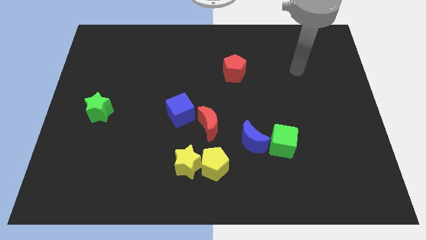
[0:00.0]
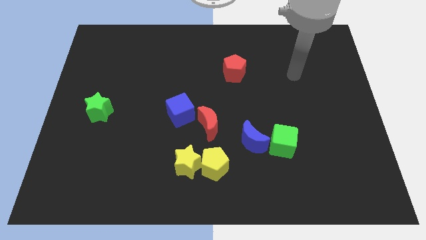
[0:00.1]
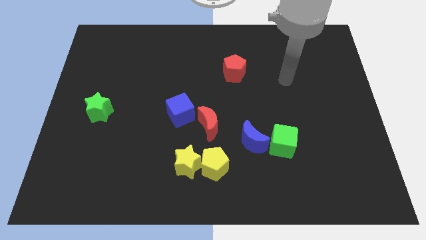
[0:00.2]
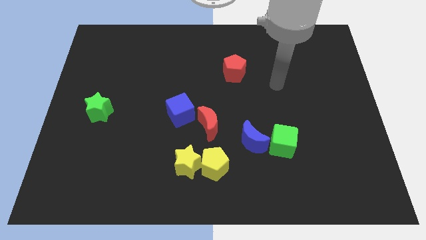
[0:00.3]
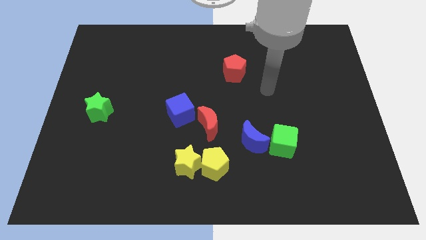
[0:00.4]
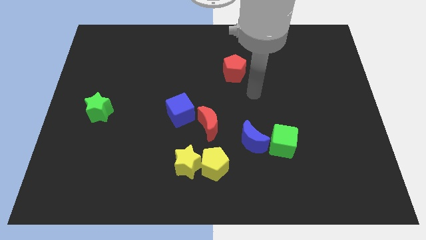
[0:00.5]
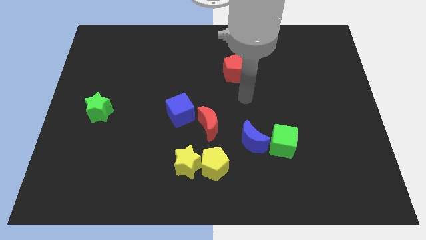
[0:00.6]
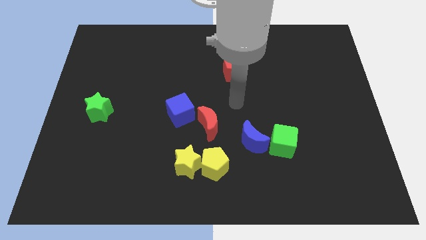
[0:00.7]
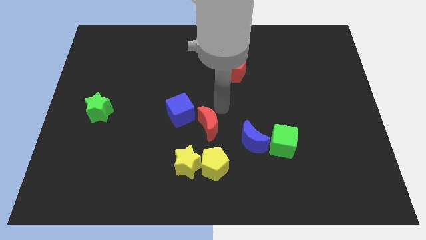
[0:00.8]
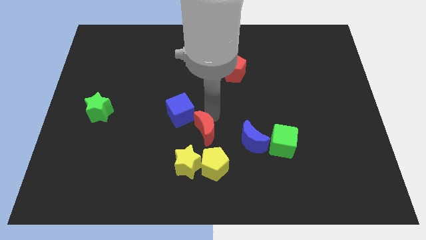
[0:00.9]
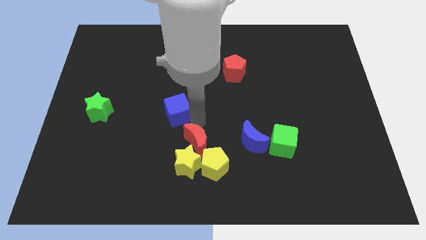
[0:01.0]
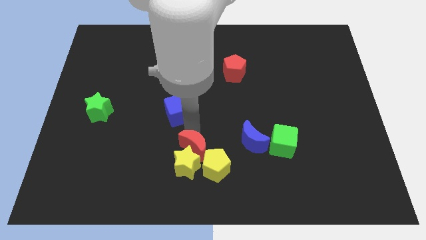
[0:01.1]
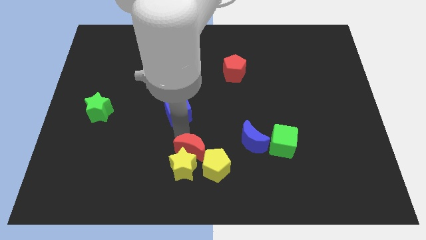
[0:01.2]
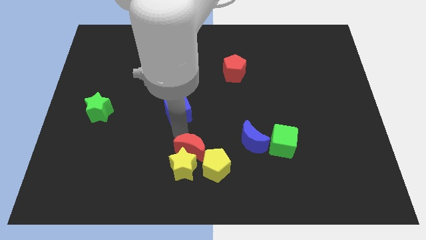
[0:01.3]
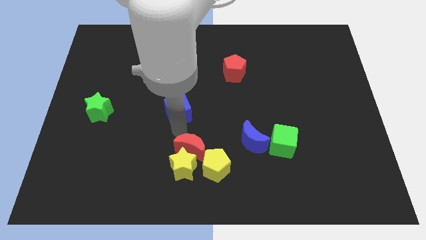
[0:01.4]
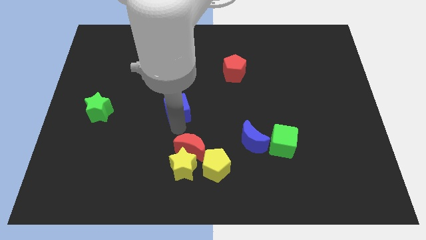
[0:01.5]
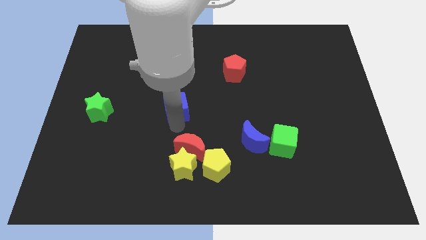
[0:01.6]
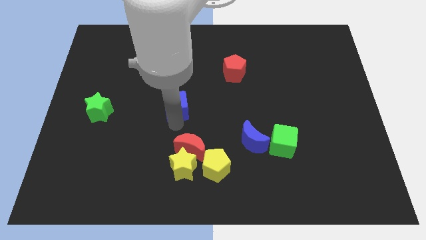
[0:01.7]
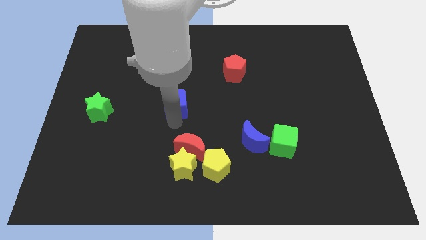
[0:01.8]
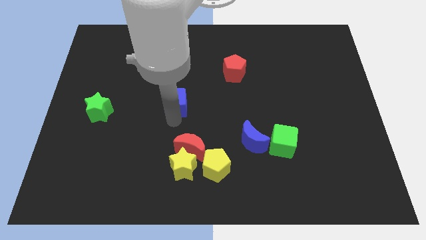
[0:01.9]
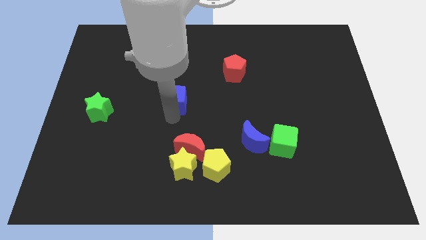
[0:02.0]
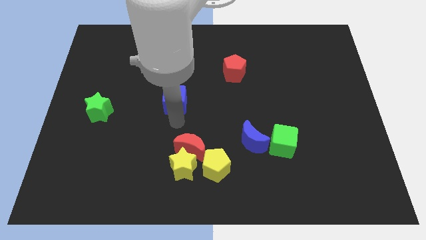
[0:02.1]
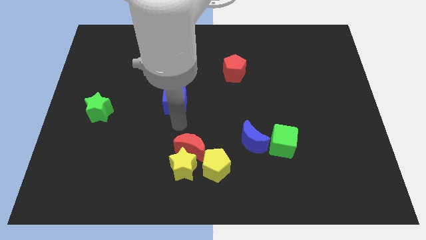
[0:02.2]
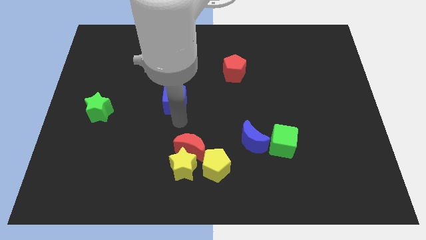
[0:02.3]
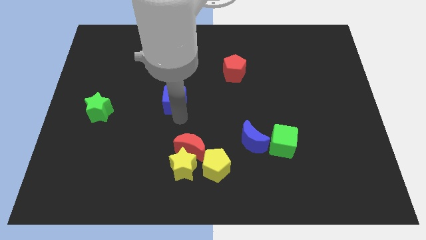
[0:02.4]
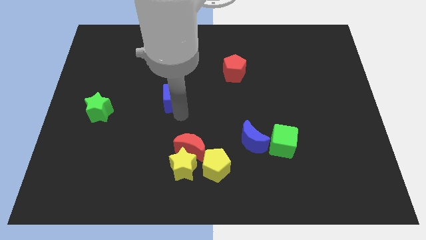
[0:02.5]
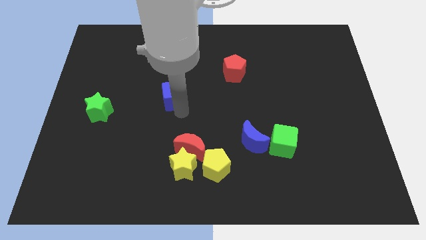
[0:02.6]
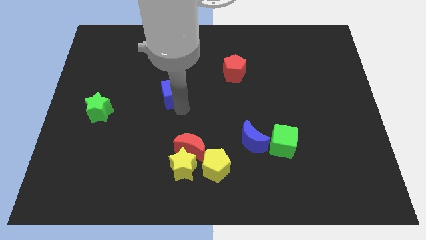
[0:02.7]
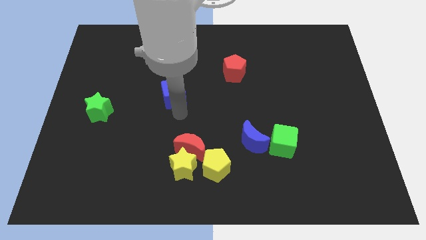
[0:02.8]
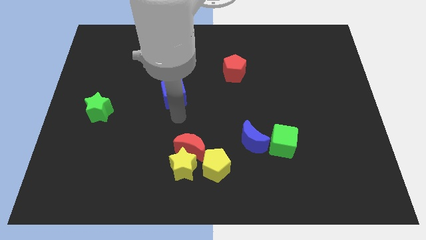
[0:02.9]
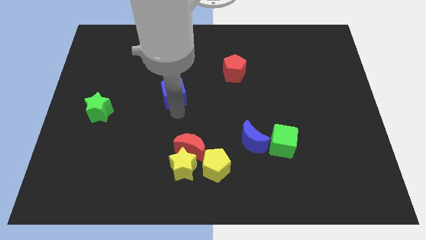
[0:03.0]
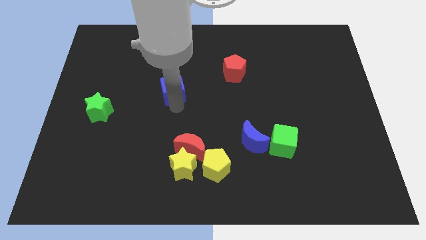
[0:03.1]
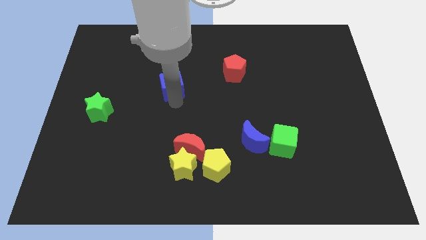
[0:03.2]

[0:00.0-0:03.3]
slide the blue cube a bit upwards

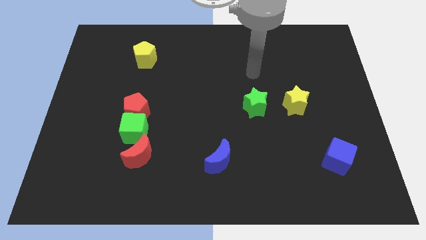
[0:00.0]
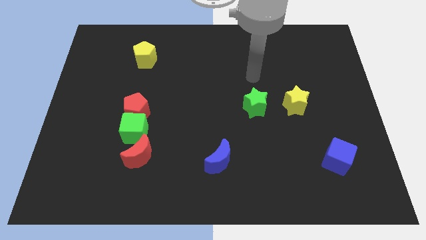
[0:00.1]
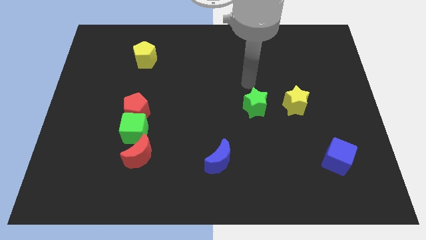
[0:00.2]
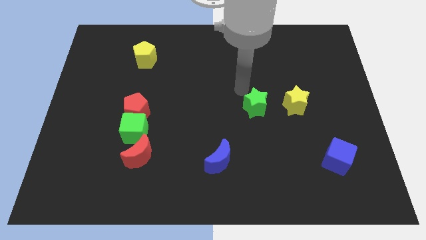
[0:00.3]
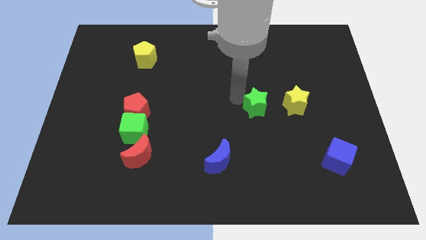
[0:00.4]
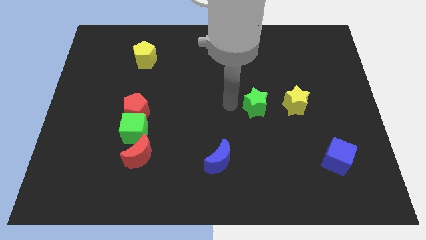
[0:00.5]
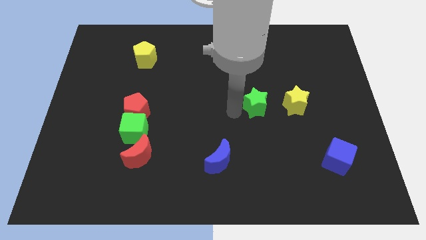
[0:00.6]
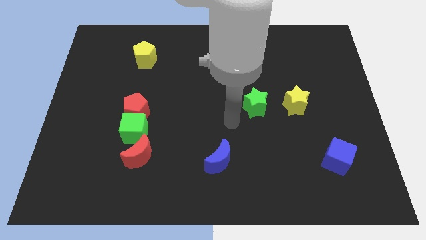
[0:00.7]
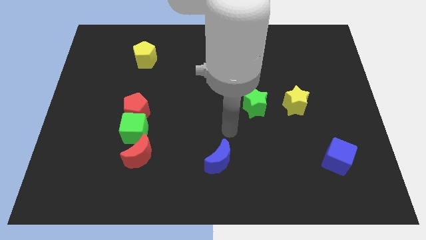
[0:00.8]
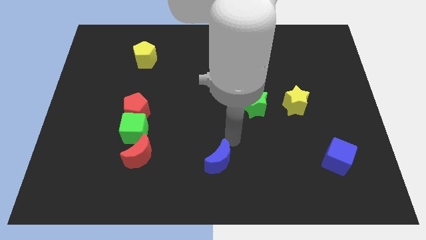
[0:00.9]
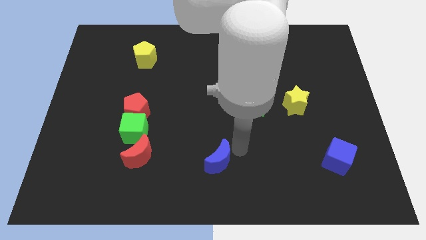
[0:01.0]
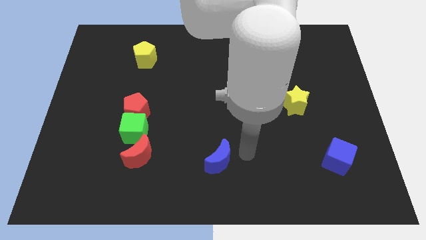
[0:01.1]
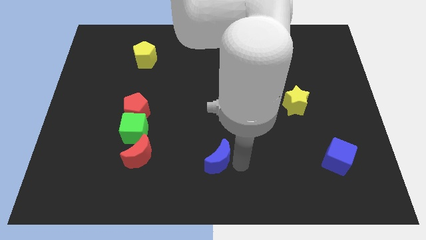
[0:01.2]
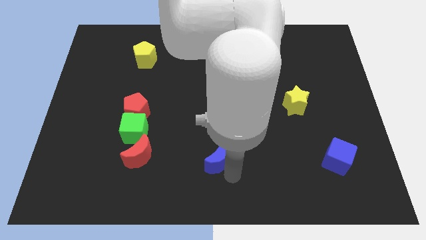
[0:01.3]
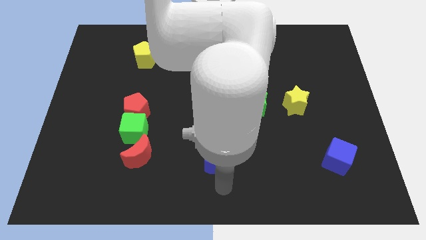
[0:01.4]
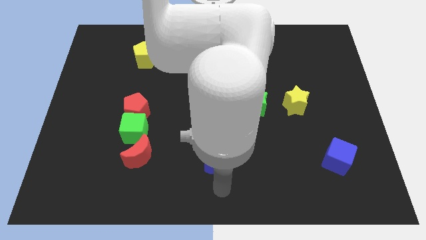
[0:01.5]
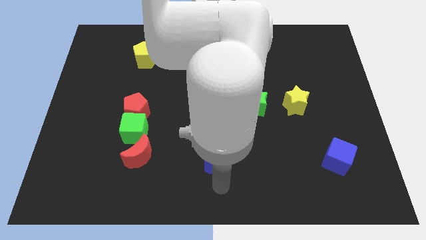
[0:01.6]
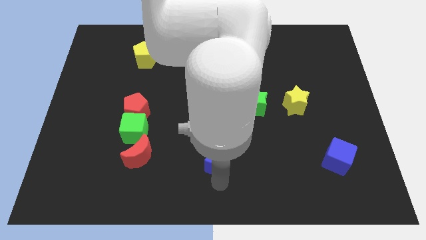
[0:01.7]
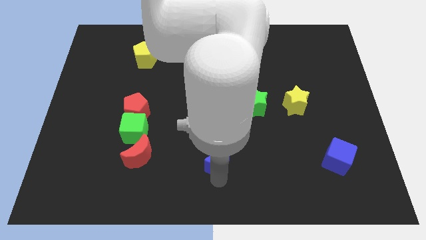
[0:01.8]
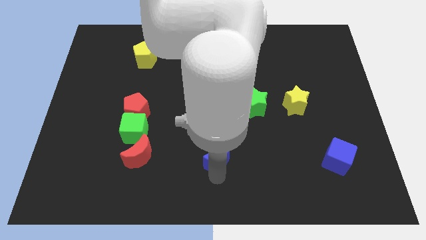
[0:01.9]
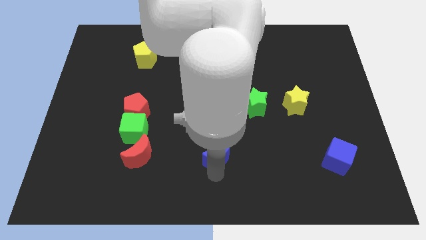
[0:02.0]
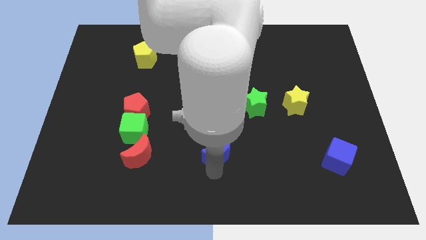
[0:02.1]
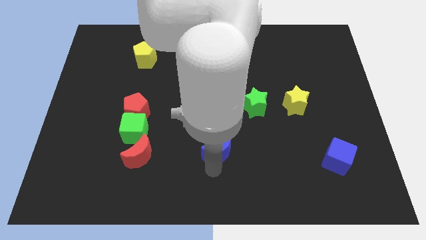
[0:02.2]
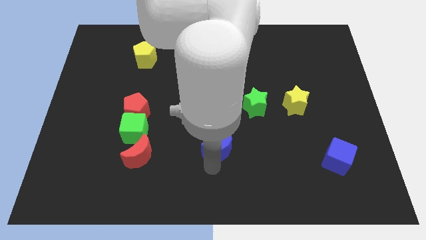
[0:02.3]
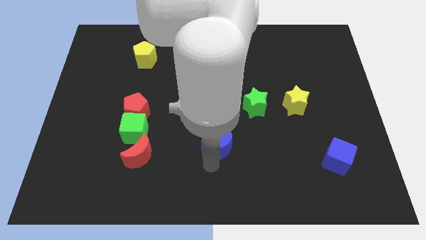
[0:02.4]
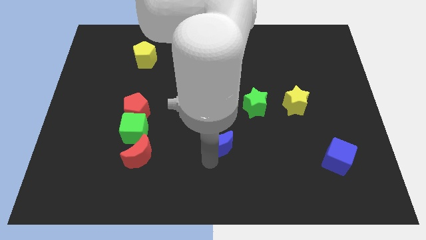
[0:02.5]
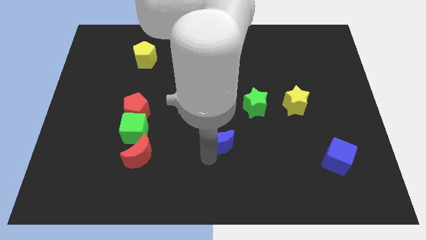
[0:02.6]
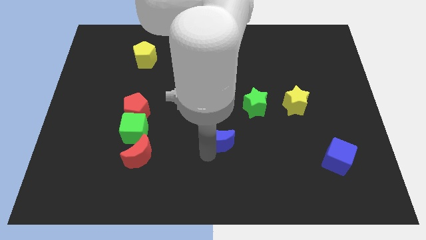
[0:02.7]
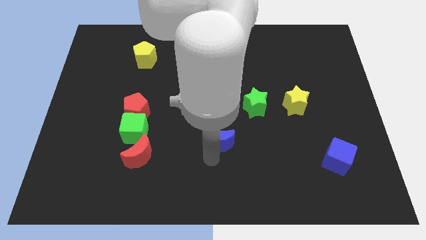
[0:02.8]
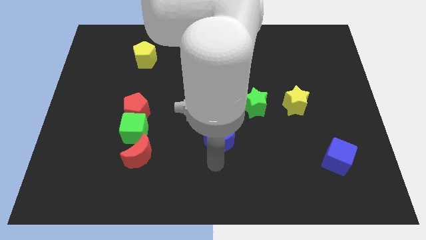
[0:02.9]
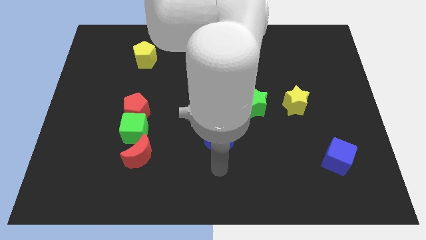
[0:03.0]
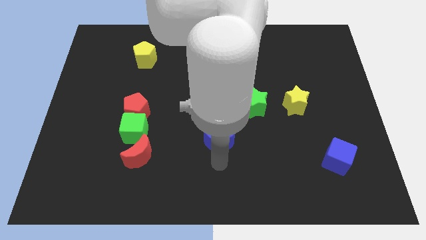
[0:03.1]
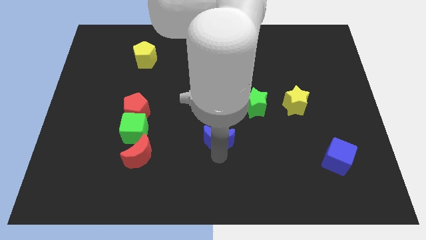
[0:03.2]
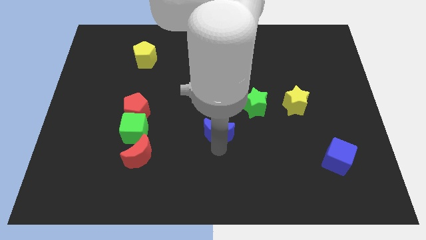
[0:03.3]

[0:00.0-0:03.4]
push the blue moon a bit up

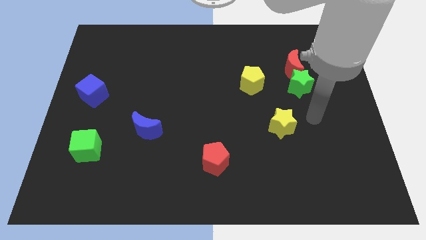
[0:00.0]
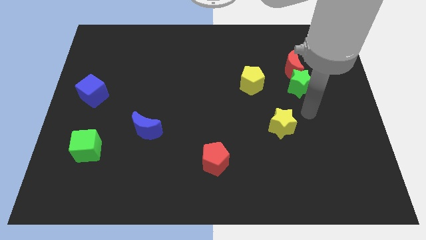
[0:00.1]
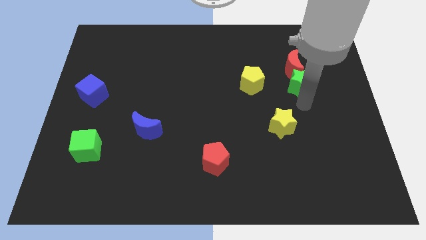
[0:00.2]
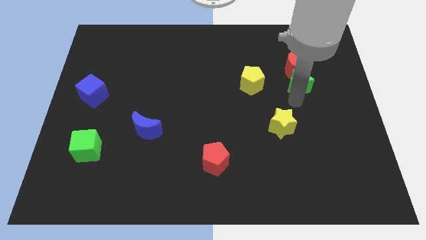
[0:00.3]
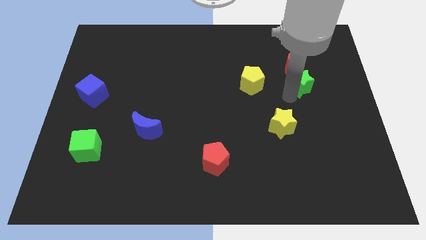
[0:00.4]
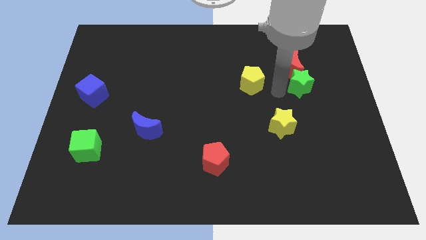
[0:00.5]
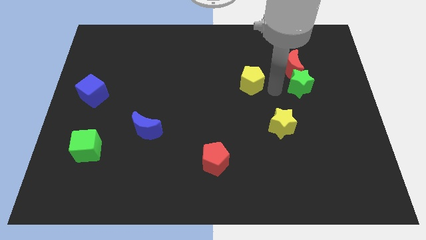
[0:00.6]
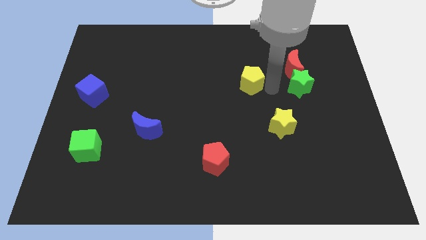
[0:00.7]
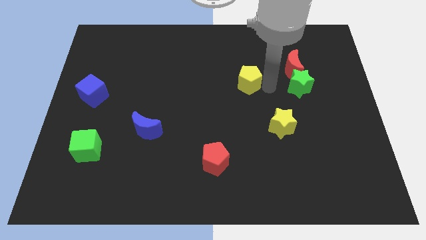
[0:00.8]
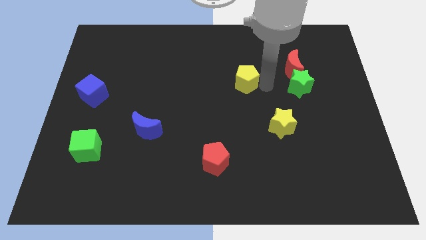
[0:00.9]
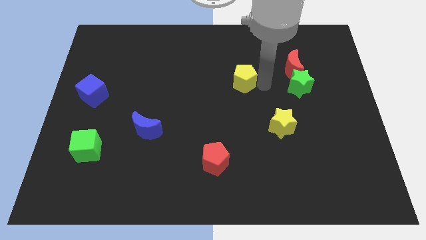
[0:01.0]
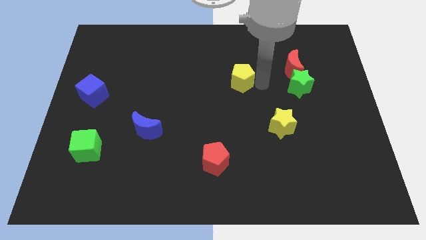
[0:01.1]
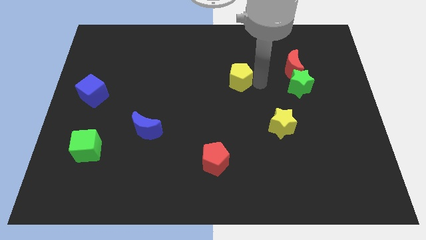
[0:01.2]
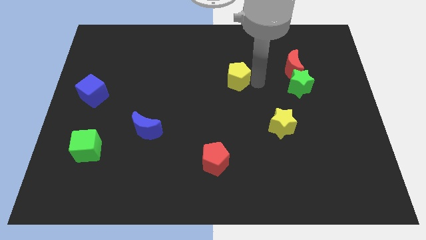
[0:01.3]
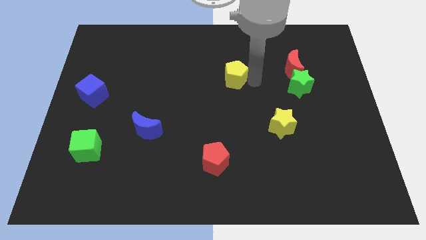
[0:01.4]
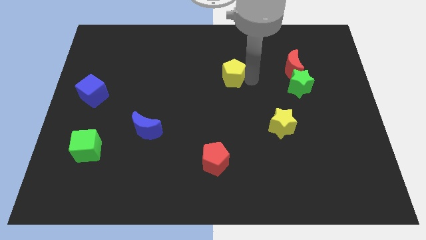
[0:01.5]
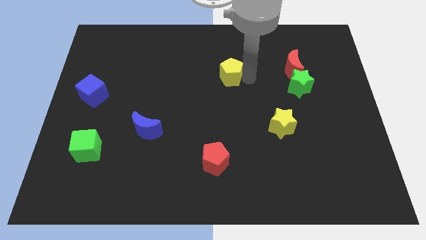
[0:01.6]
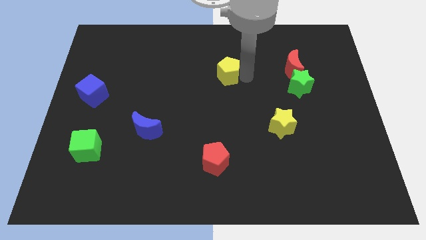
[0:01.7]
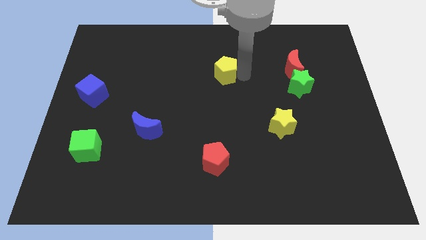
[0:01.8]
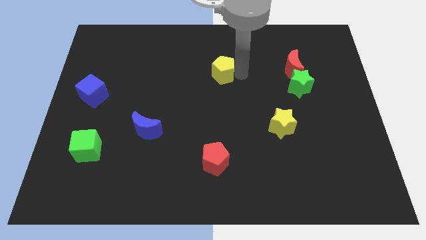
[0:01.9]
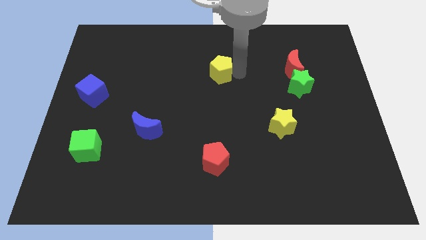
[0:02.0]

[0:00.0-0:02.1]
slide the yellow pentagon somewhat left
